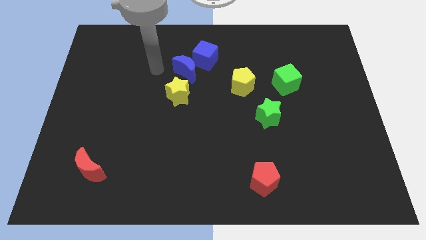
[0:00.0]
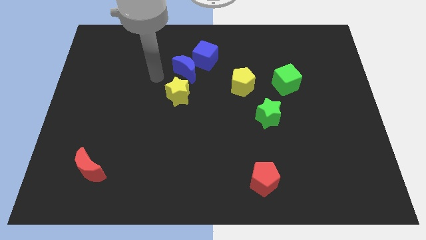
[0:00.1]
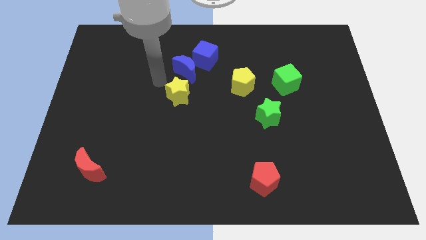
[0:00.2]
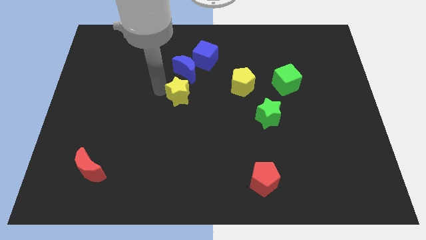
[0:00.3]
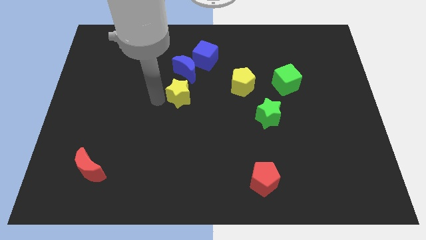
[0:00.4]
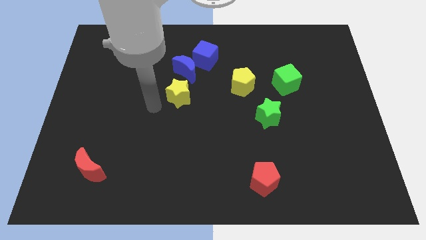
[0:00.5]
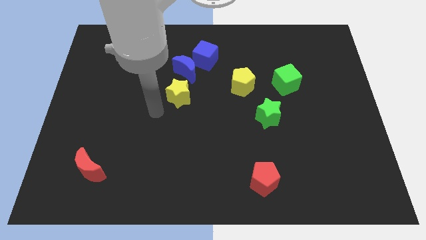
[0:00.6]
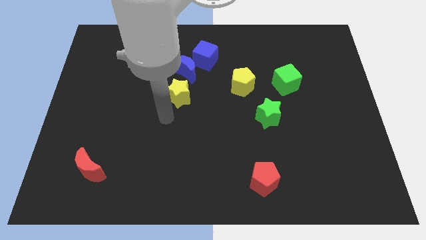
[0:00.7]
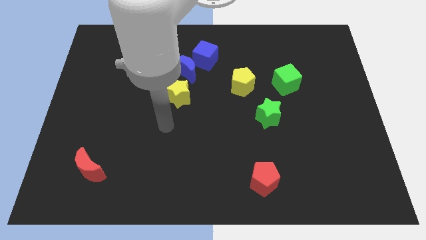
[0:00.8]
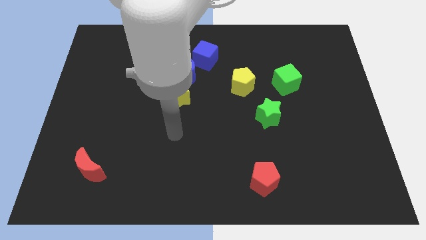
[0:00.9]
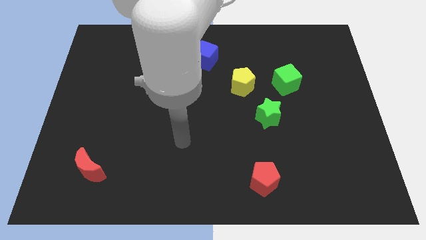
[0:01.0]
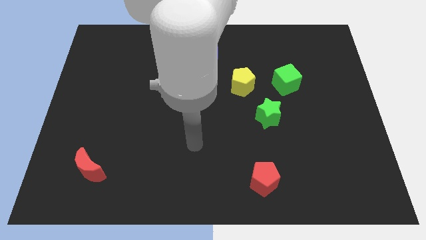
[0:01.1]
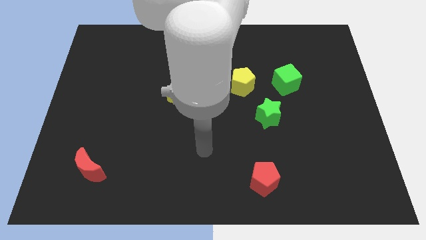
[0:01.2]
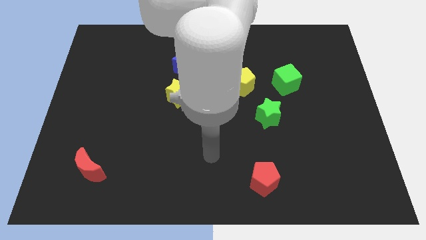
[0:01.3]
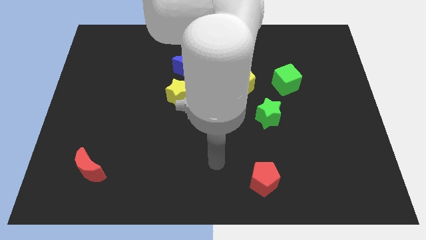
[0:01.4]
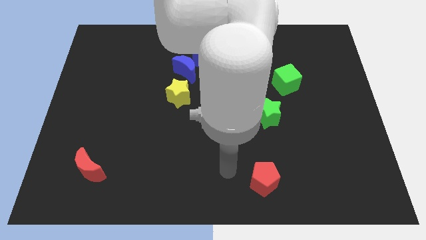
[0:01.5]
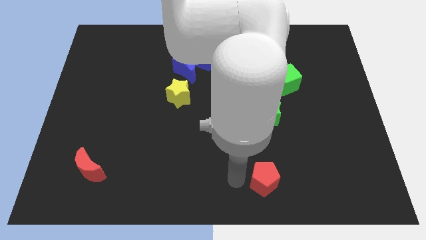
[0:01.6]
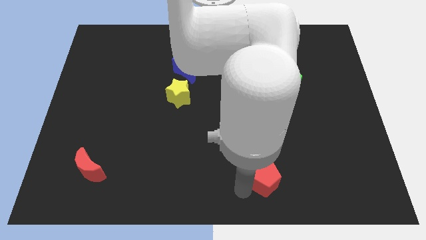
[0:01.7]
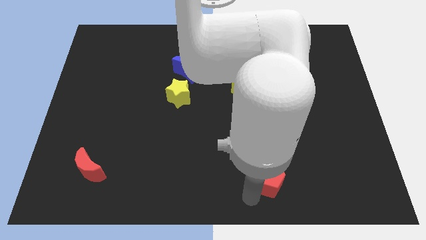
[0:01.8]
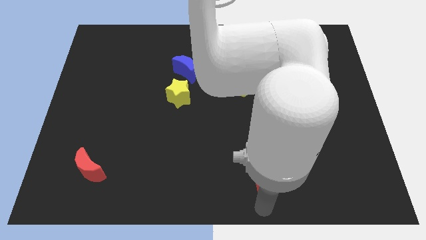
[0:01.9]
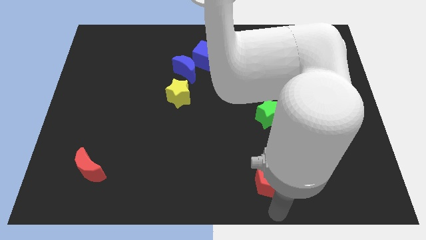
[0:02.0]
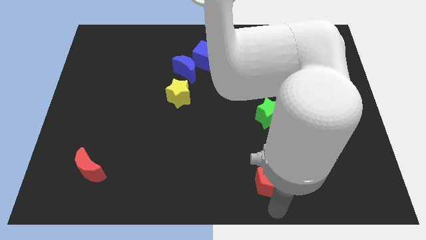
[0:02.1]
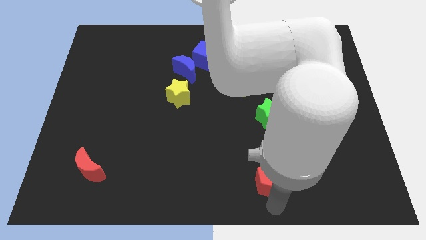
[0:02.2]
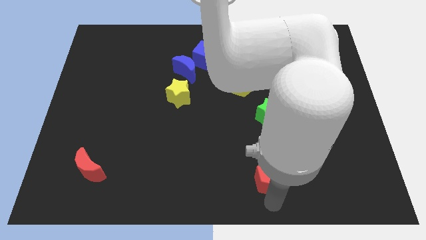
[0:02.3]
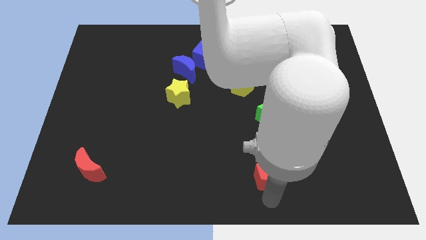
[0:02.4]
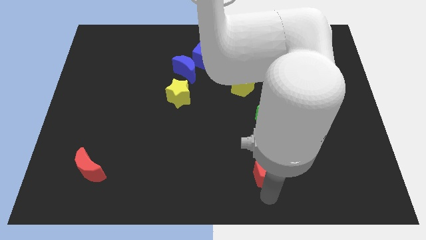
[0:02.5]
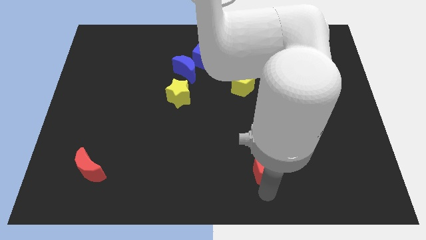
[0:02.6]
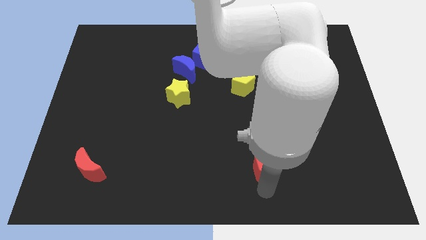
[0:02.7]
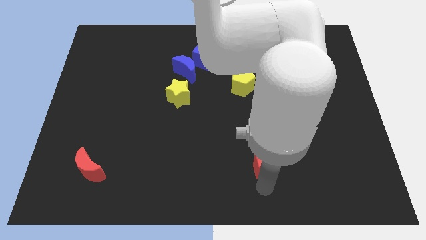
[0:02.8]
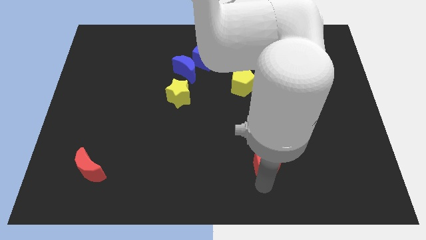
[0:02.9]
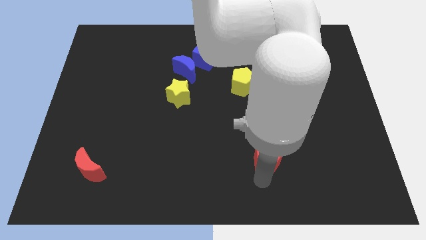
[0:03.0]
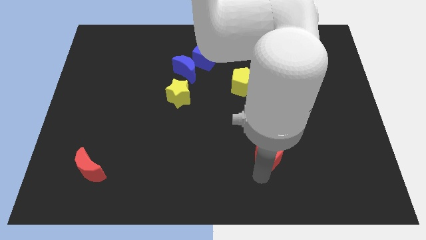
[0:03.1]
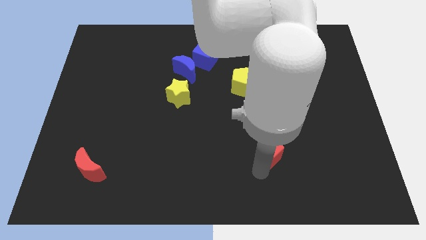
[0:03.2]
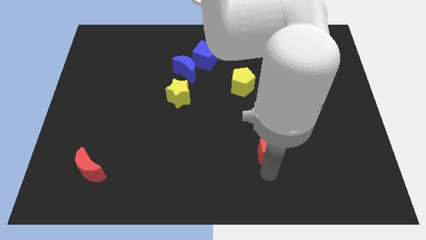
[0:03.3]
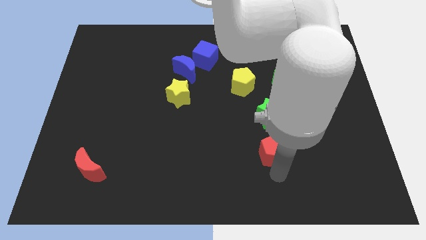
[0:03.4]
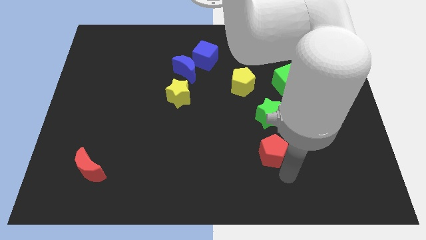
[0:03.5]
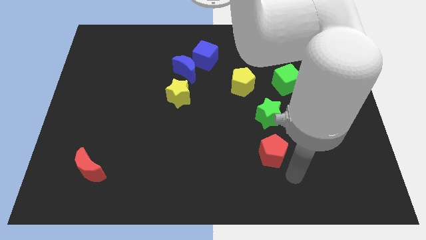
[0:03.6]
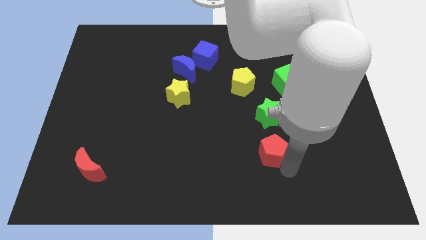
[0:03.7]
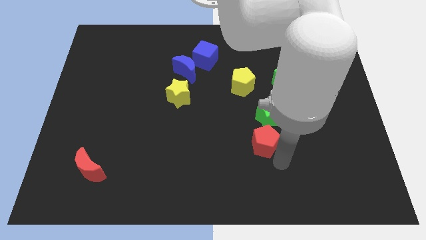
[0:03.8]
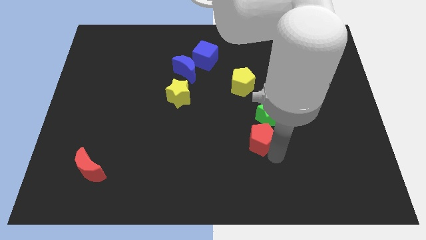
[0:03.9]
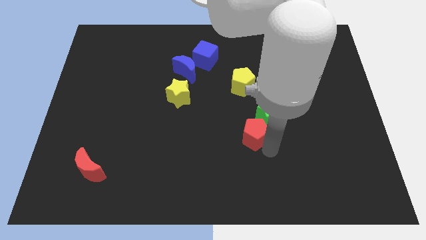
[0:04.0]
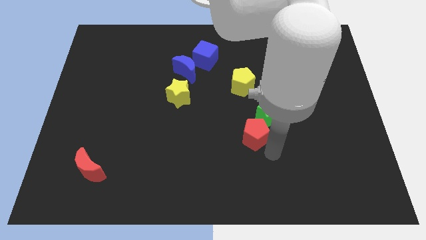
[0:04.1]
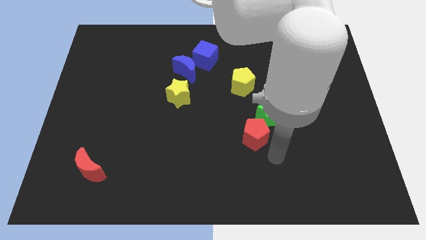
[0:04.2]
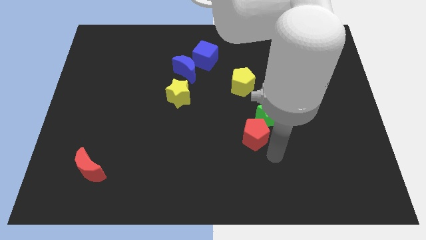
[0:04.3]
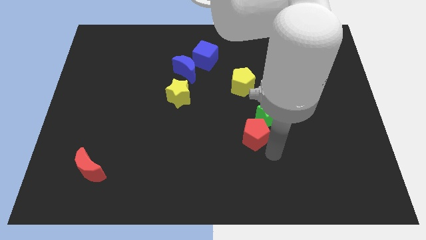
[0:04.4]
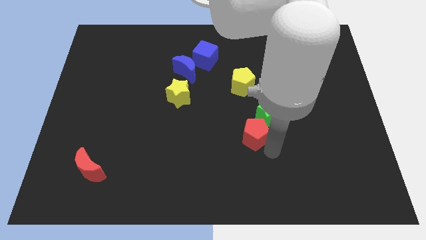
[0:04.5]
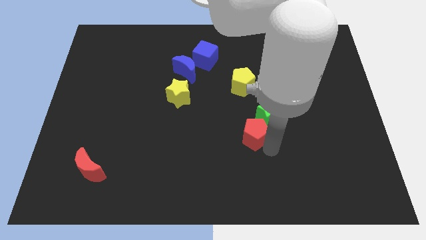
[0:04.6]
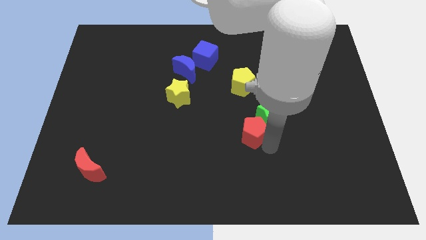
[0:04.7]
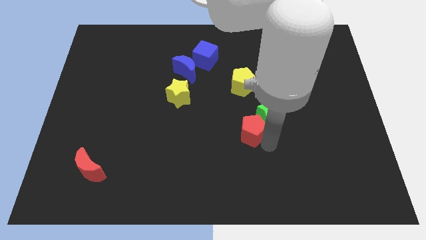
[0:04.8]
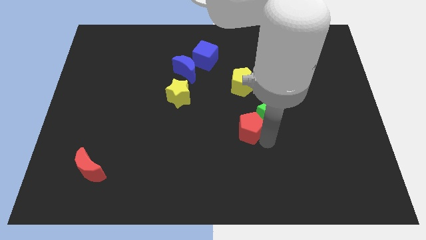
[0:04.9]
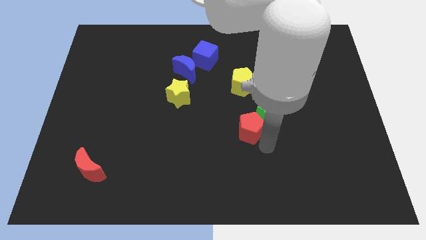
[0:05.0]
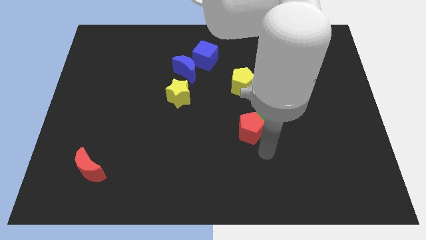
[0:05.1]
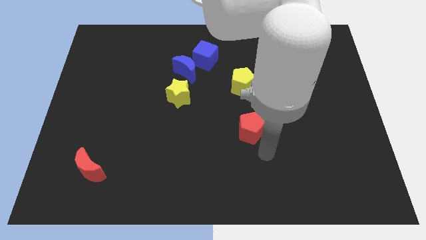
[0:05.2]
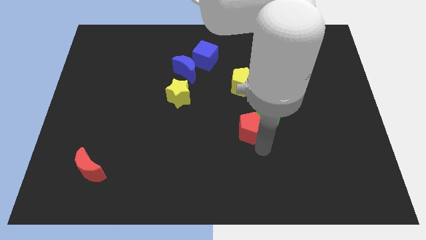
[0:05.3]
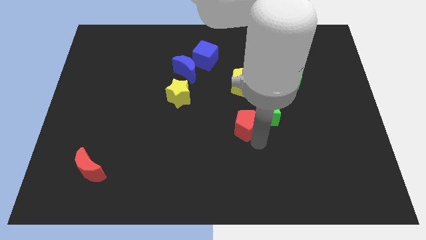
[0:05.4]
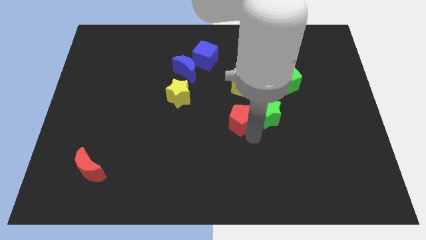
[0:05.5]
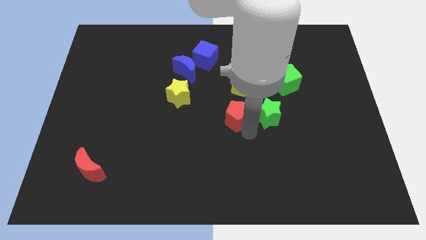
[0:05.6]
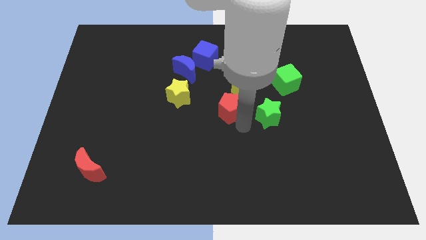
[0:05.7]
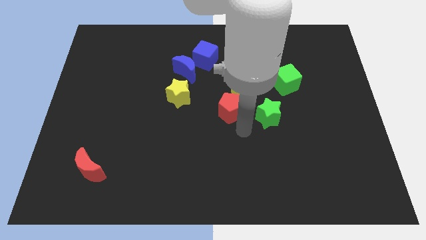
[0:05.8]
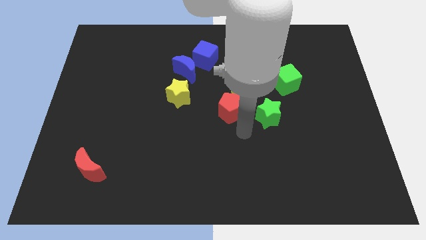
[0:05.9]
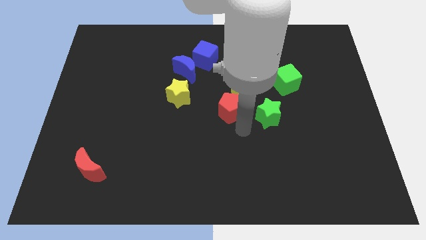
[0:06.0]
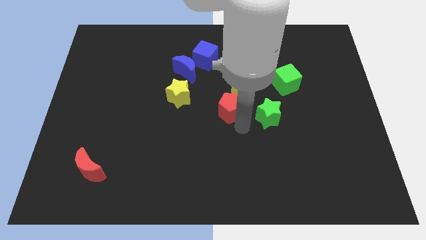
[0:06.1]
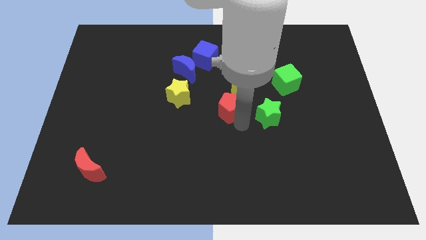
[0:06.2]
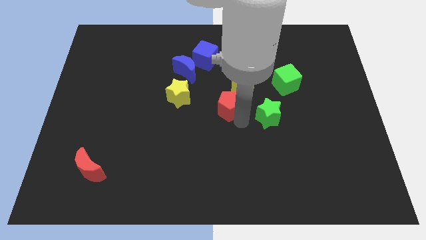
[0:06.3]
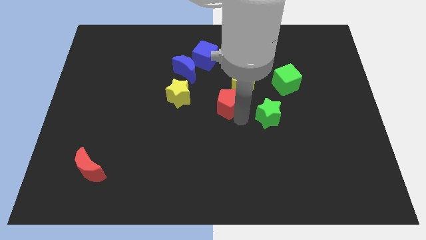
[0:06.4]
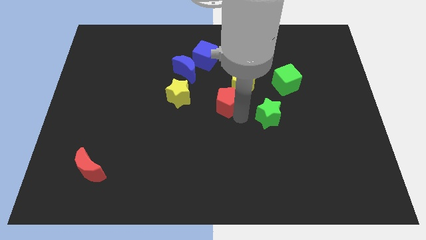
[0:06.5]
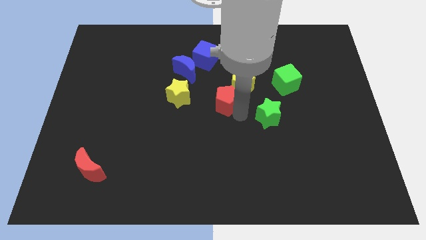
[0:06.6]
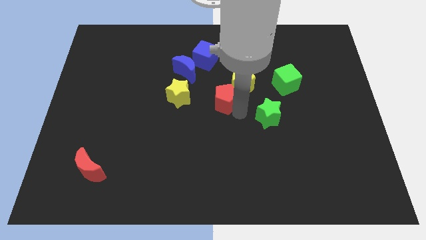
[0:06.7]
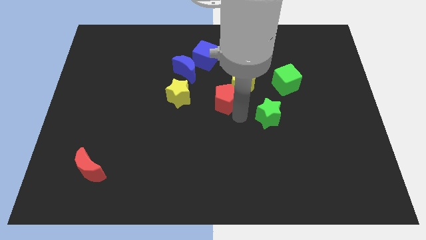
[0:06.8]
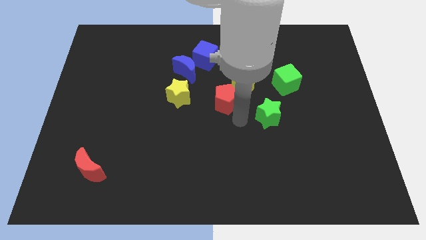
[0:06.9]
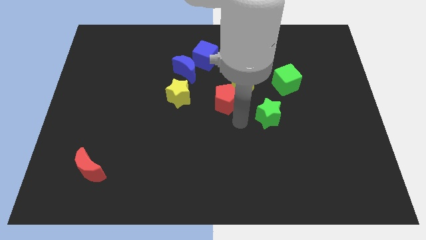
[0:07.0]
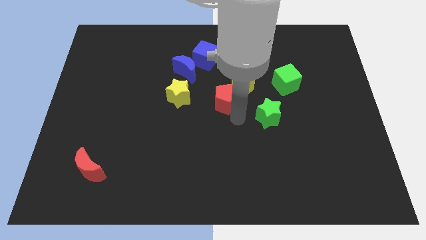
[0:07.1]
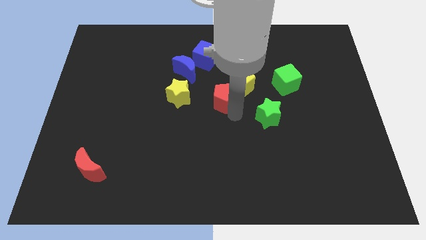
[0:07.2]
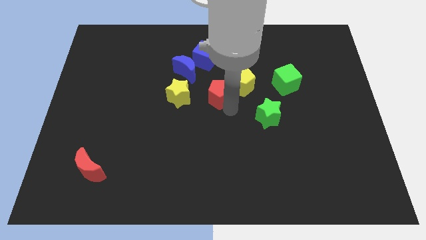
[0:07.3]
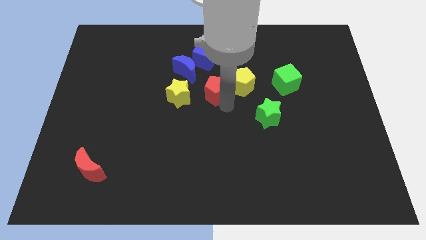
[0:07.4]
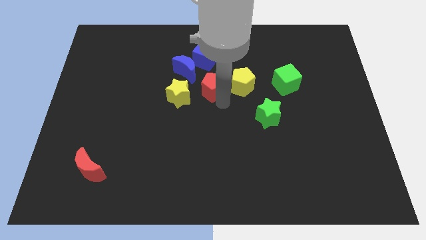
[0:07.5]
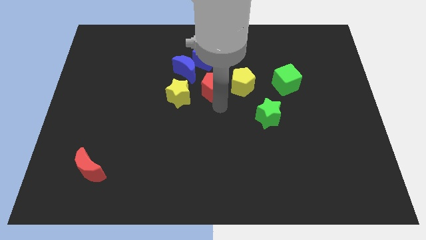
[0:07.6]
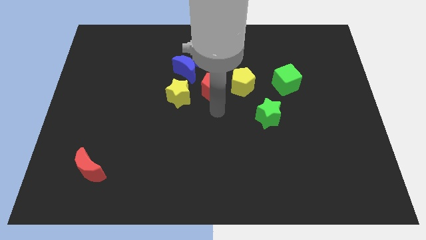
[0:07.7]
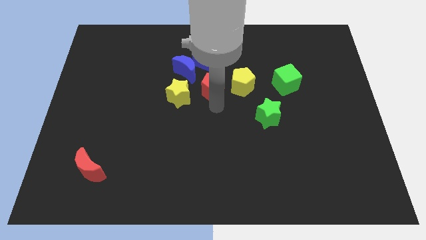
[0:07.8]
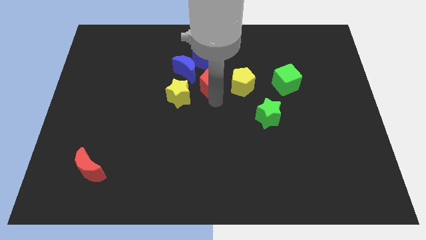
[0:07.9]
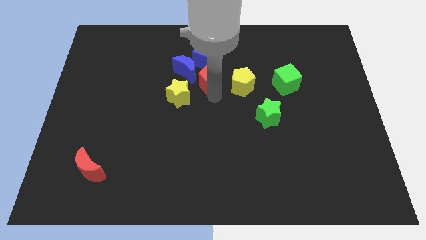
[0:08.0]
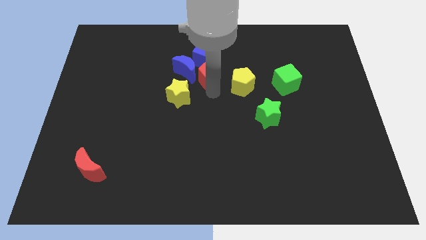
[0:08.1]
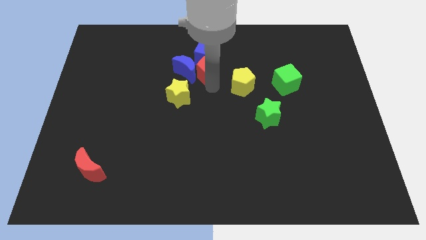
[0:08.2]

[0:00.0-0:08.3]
put the red pentagon close to the blue cube
